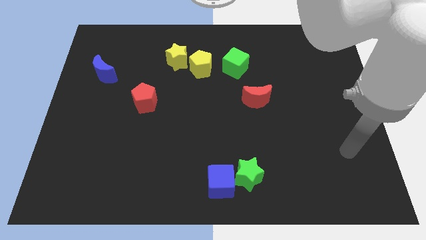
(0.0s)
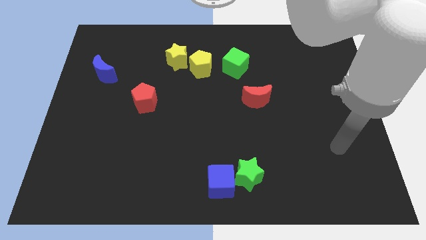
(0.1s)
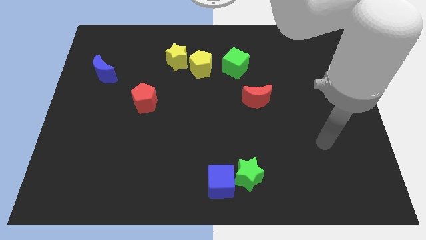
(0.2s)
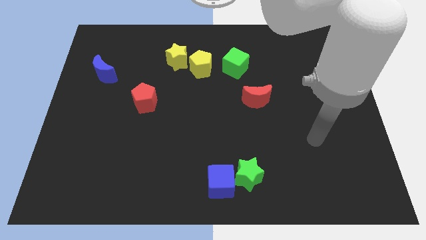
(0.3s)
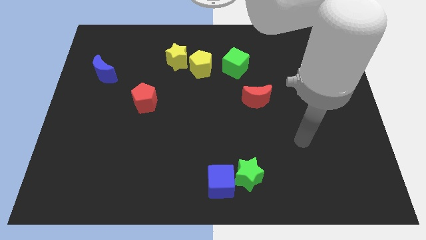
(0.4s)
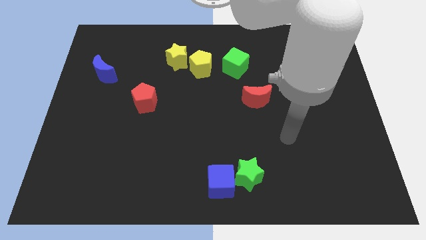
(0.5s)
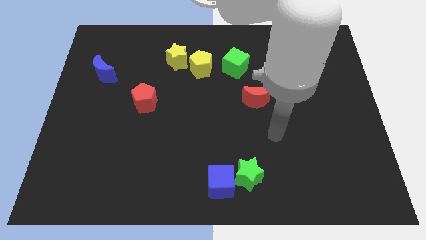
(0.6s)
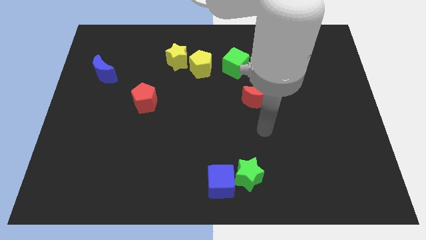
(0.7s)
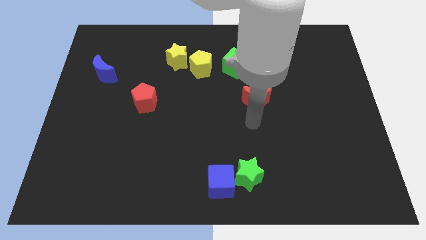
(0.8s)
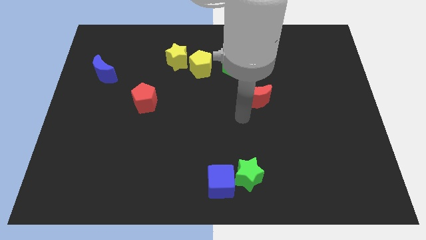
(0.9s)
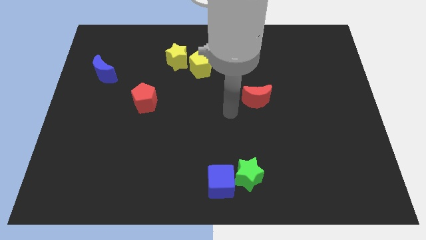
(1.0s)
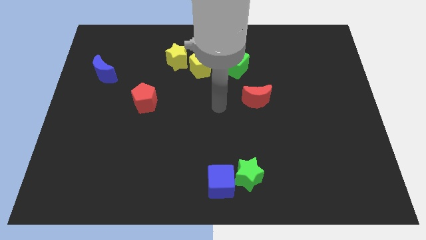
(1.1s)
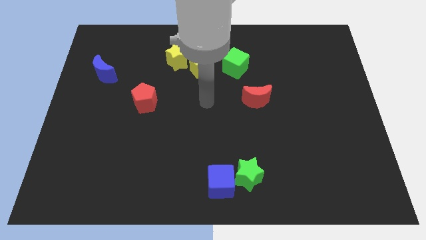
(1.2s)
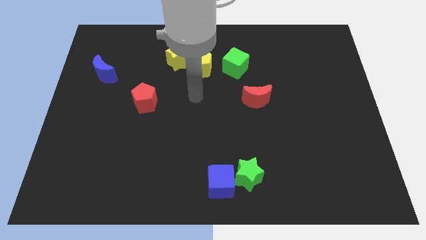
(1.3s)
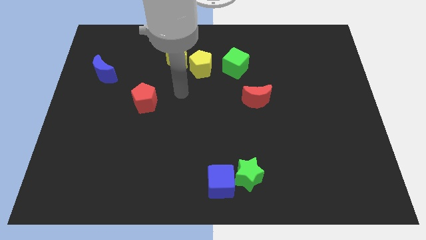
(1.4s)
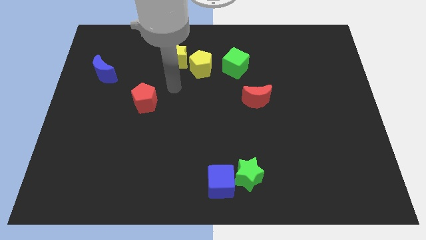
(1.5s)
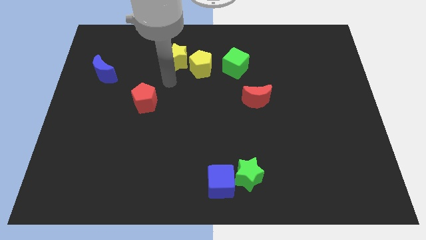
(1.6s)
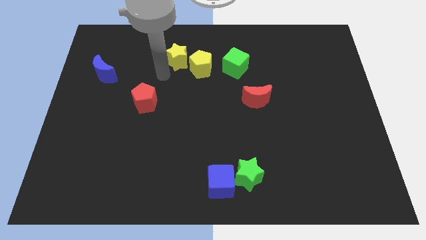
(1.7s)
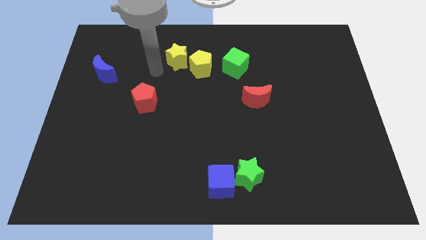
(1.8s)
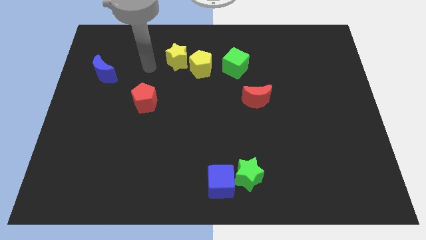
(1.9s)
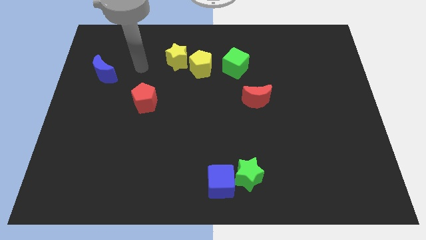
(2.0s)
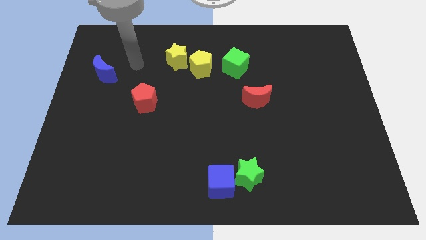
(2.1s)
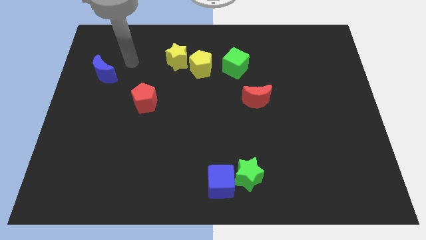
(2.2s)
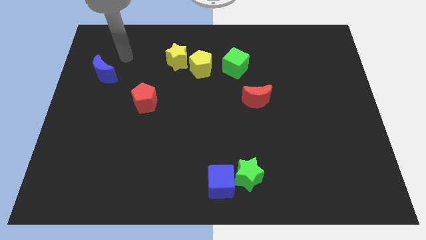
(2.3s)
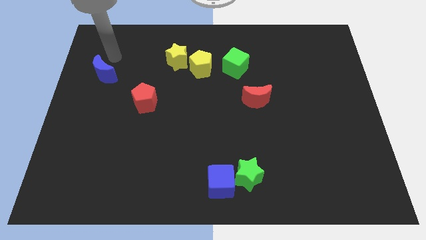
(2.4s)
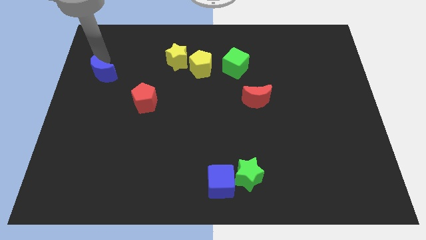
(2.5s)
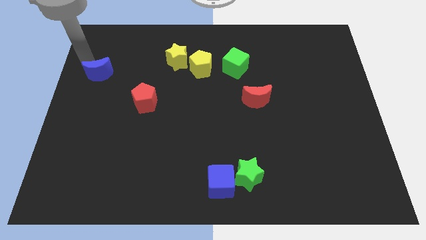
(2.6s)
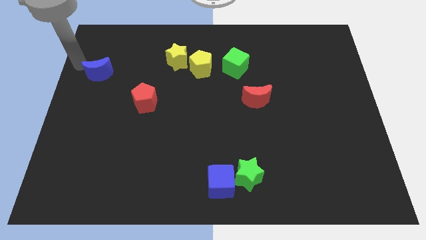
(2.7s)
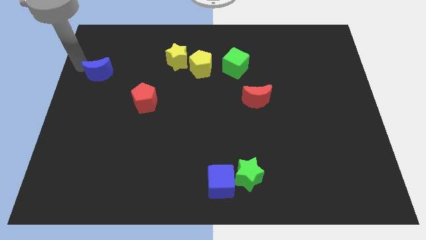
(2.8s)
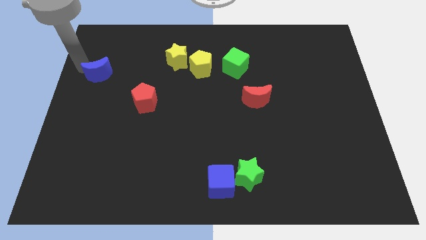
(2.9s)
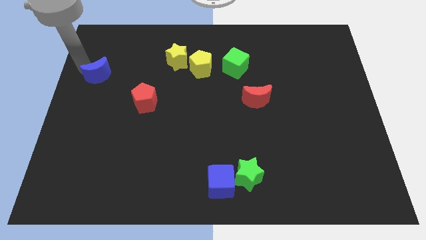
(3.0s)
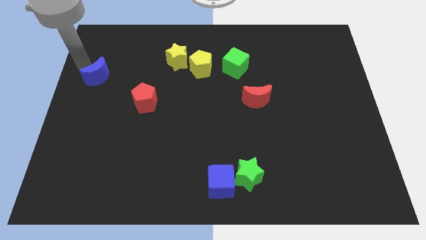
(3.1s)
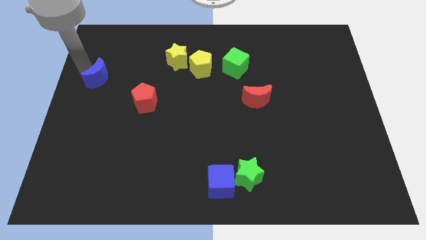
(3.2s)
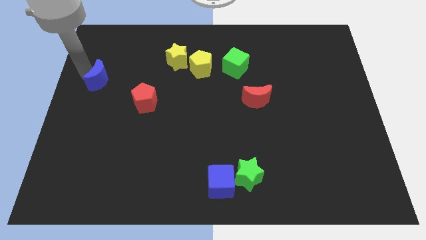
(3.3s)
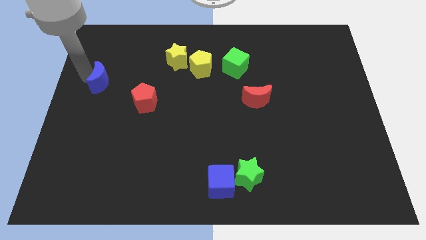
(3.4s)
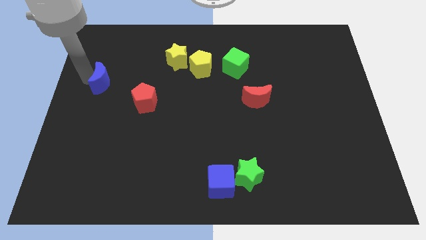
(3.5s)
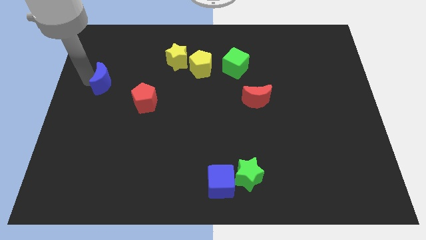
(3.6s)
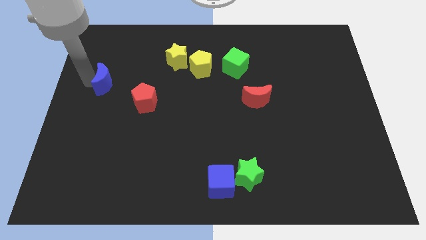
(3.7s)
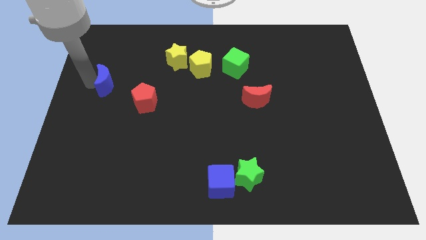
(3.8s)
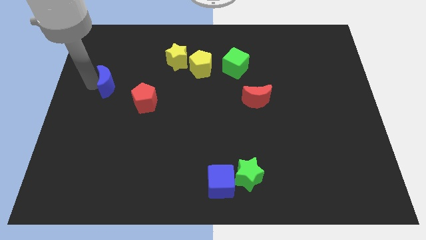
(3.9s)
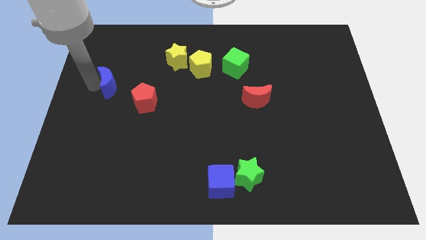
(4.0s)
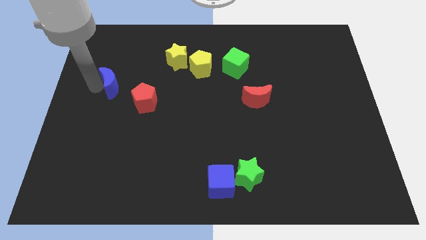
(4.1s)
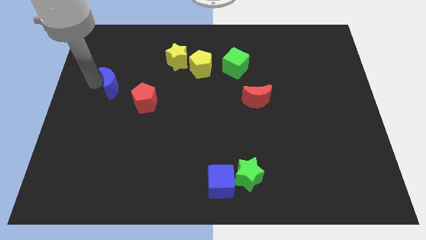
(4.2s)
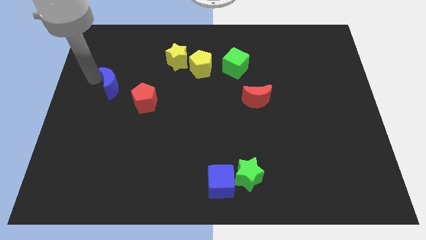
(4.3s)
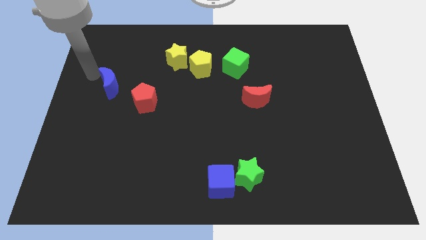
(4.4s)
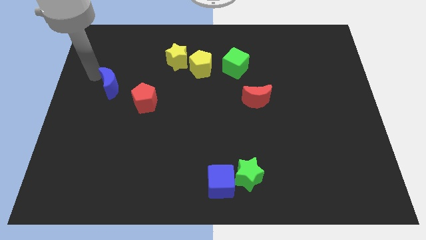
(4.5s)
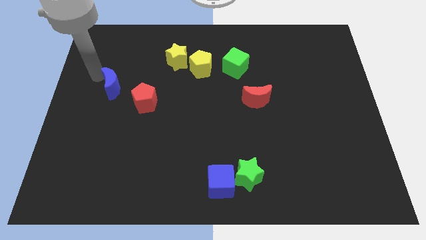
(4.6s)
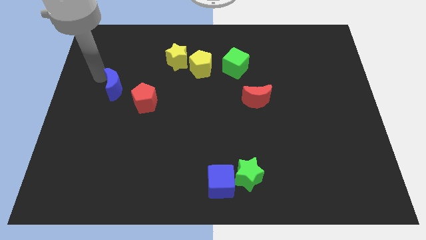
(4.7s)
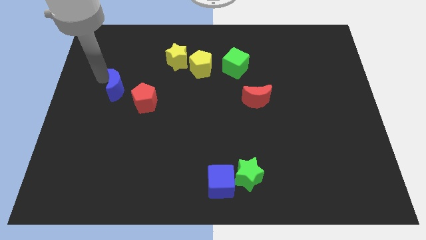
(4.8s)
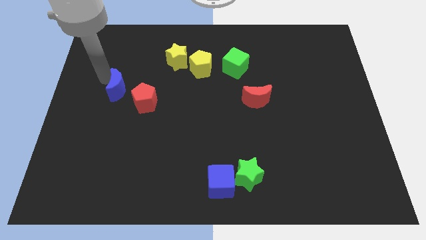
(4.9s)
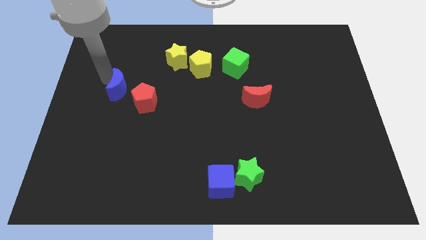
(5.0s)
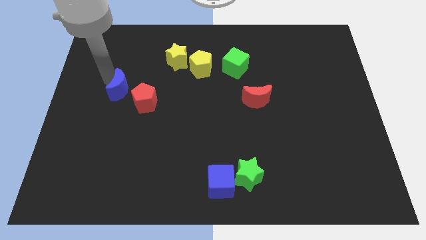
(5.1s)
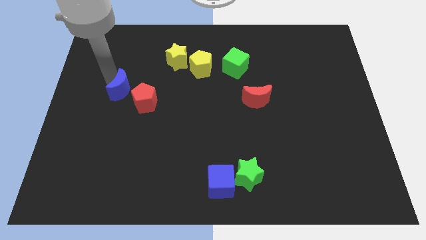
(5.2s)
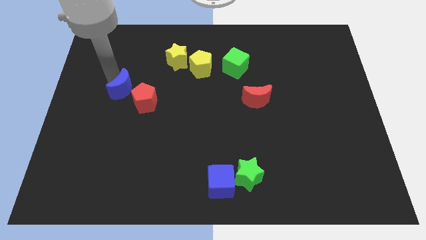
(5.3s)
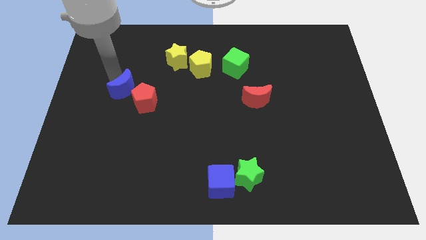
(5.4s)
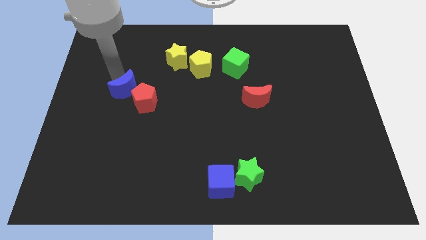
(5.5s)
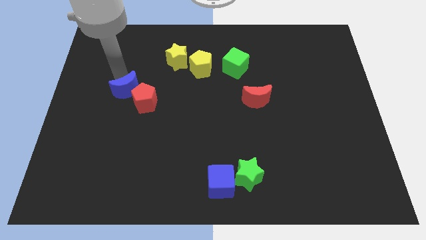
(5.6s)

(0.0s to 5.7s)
move the blue moon next to the red pentagon

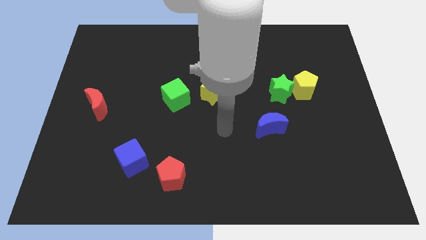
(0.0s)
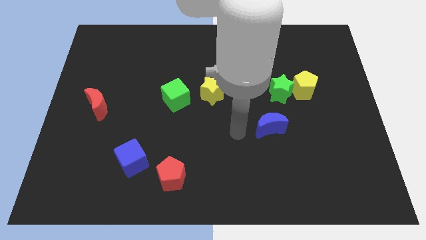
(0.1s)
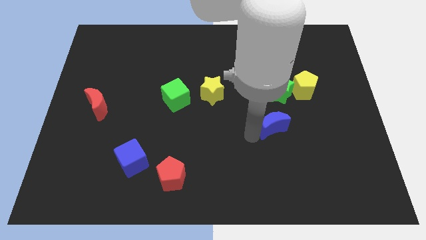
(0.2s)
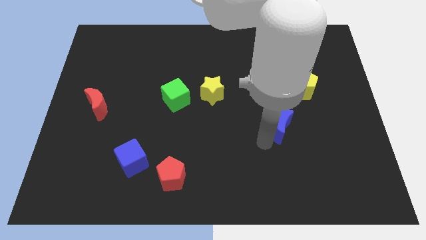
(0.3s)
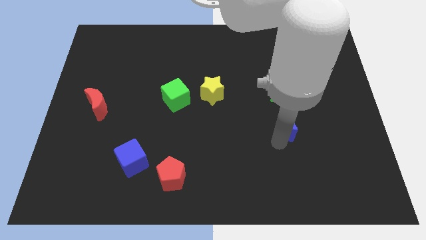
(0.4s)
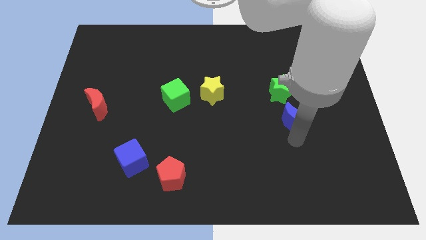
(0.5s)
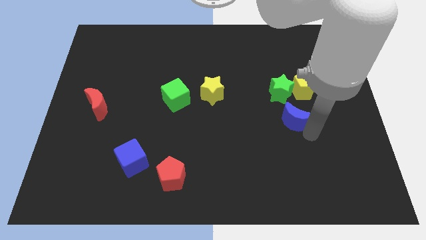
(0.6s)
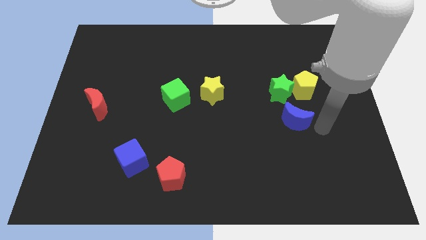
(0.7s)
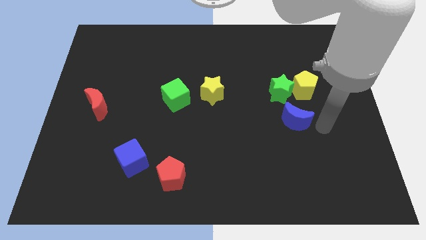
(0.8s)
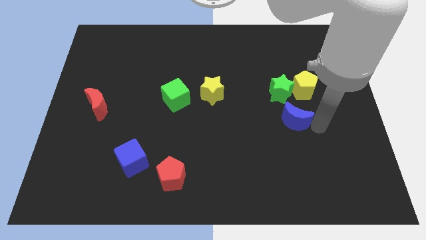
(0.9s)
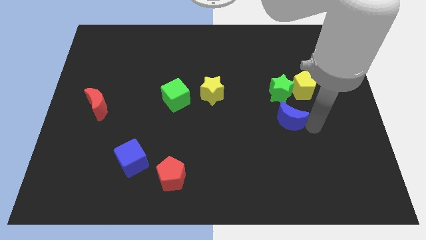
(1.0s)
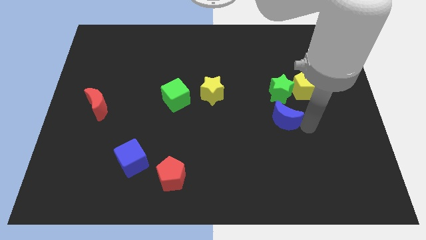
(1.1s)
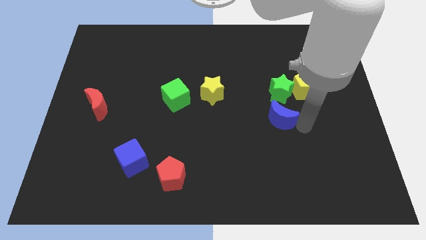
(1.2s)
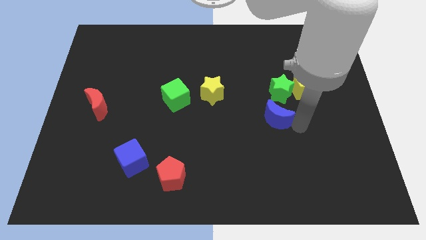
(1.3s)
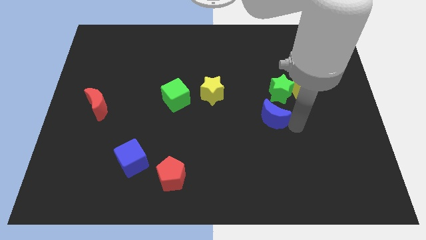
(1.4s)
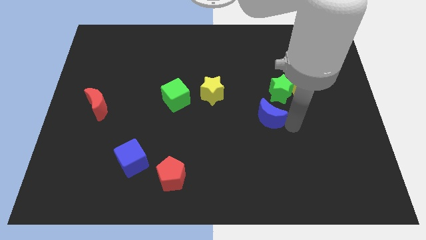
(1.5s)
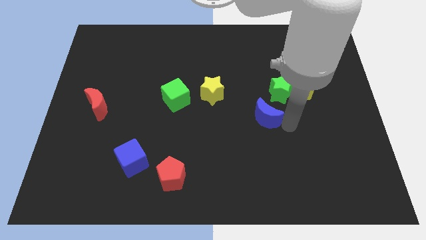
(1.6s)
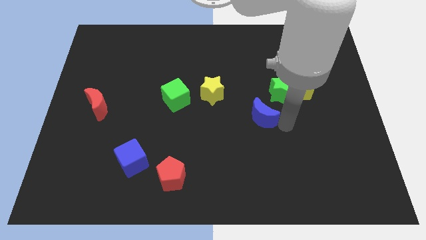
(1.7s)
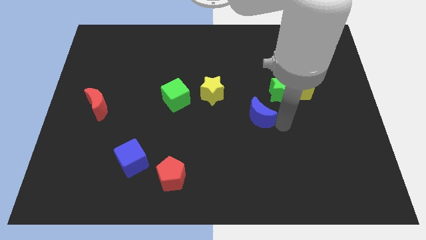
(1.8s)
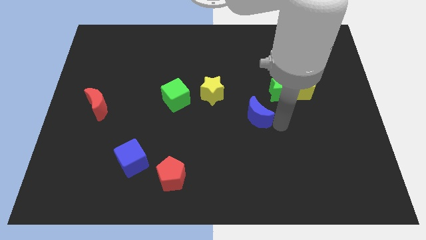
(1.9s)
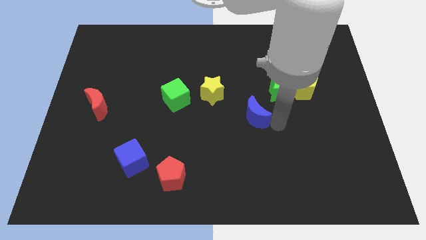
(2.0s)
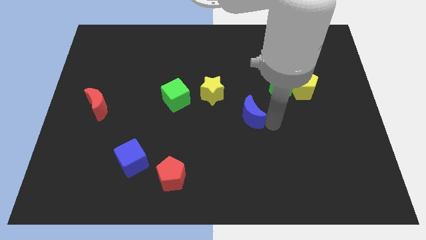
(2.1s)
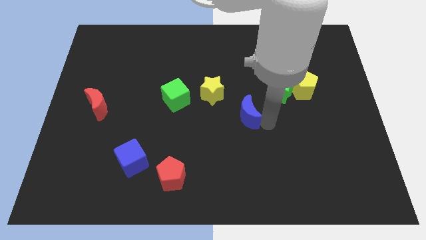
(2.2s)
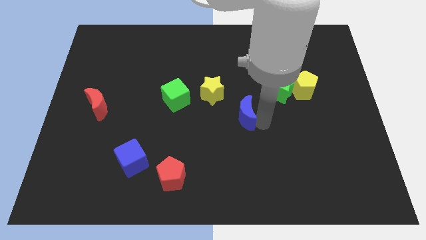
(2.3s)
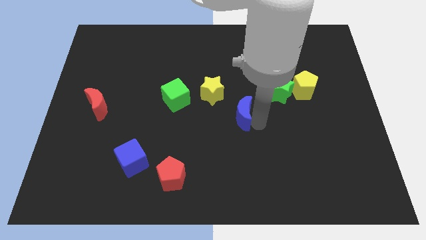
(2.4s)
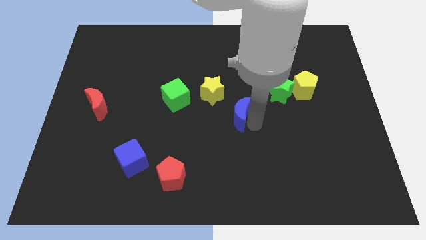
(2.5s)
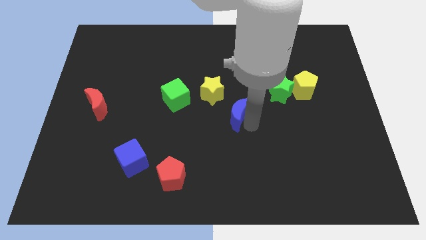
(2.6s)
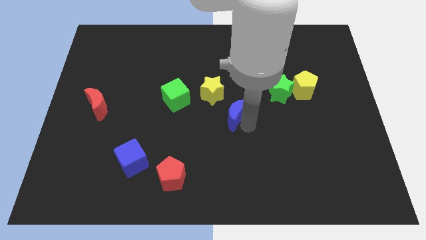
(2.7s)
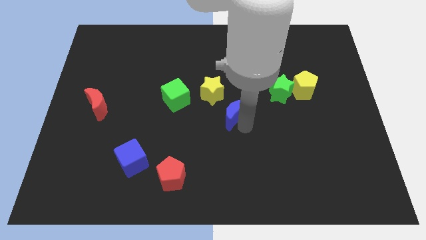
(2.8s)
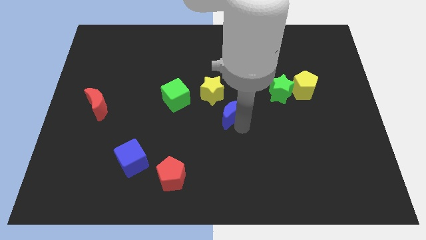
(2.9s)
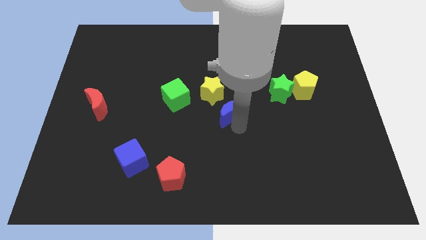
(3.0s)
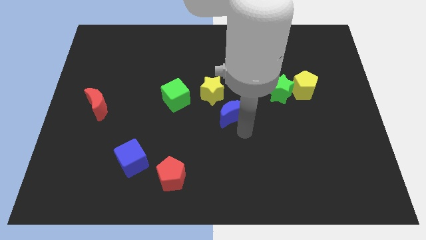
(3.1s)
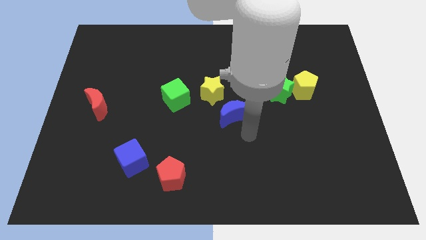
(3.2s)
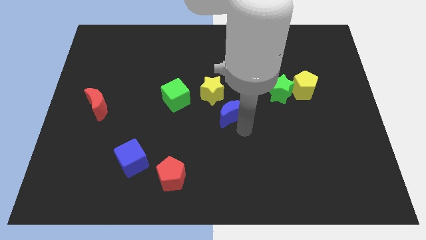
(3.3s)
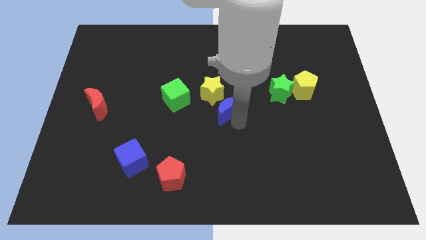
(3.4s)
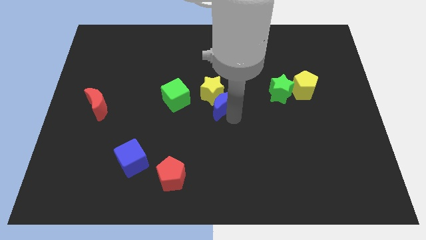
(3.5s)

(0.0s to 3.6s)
slide the blue moon next to the yellow star
